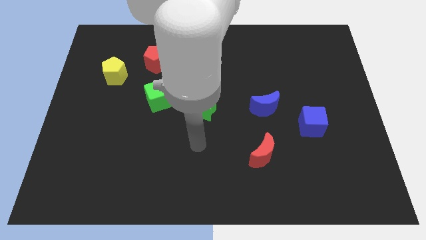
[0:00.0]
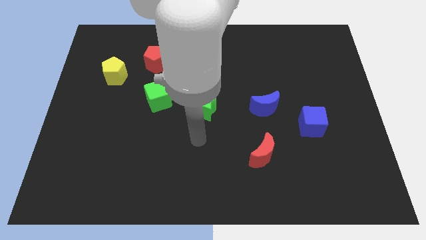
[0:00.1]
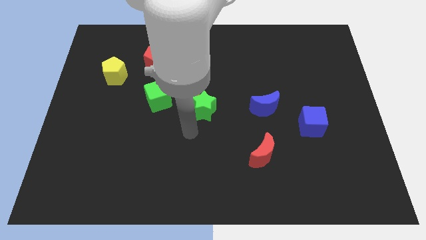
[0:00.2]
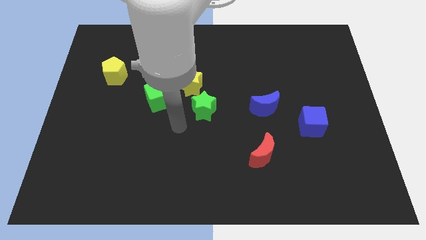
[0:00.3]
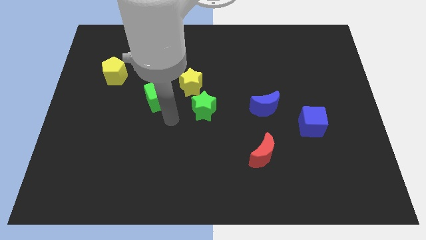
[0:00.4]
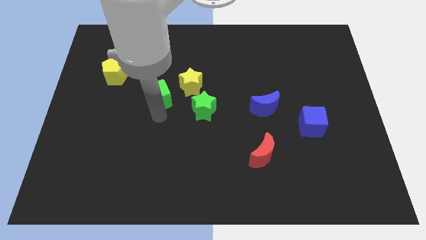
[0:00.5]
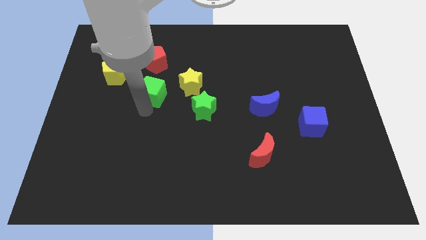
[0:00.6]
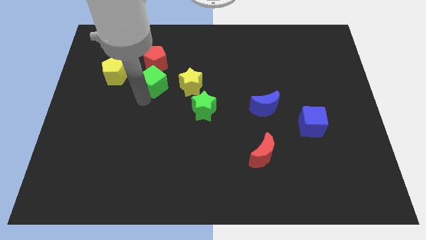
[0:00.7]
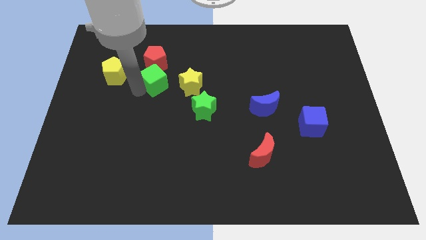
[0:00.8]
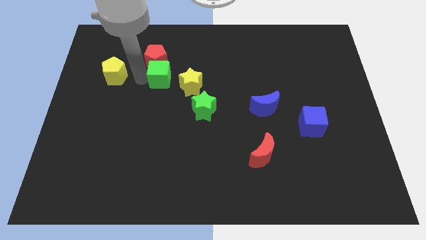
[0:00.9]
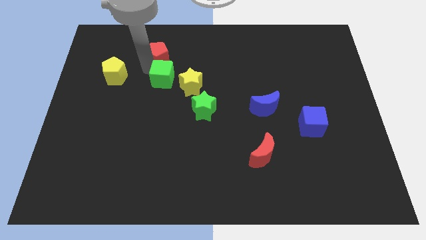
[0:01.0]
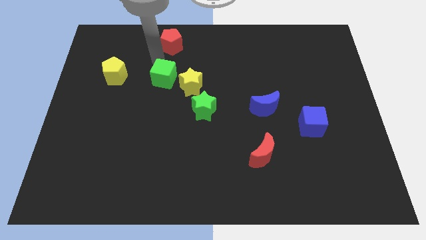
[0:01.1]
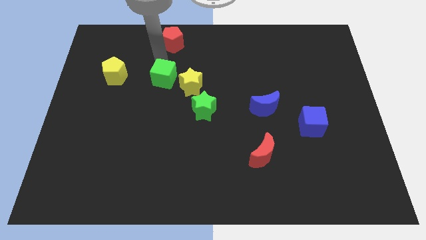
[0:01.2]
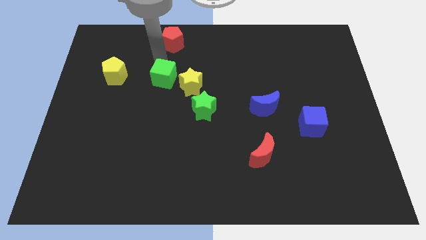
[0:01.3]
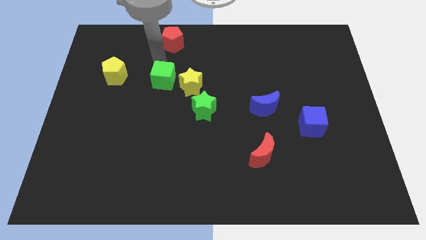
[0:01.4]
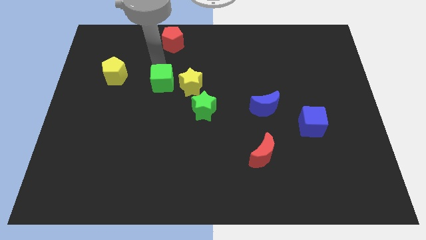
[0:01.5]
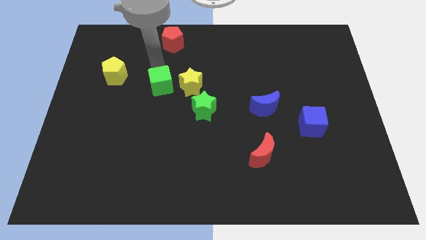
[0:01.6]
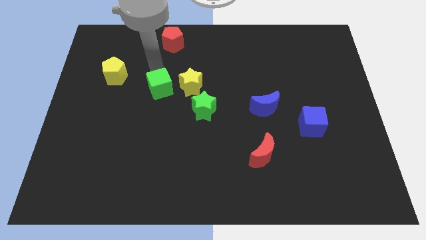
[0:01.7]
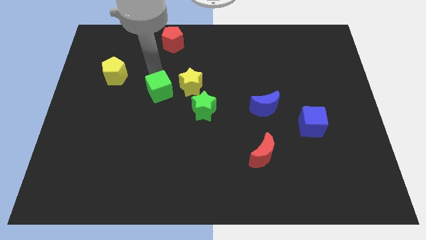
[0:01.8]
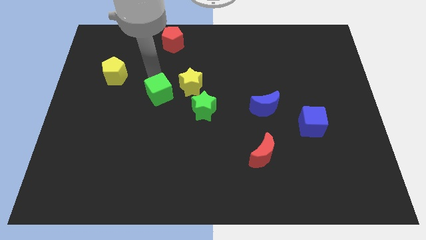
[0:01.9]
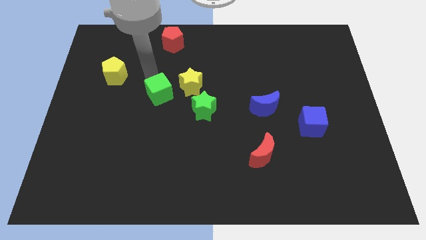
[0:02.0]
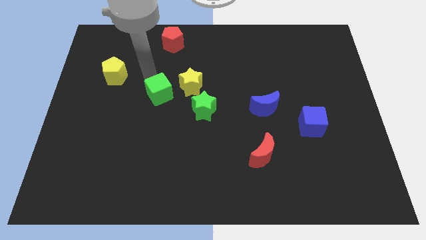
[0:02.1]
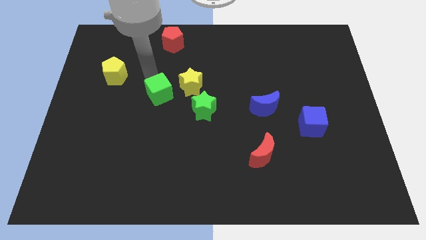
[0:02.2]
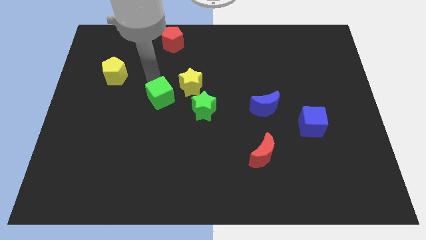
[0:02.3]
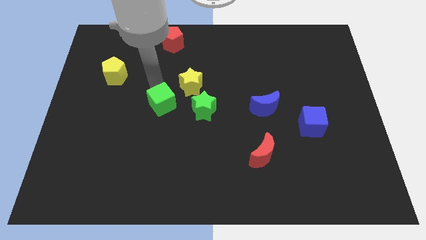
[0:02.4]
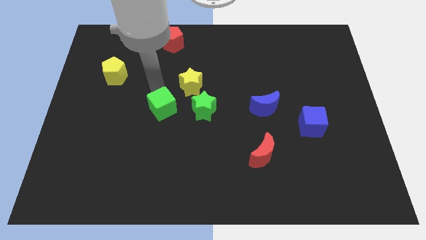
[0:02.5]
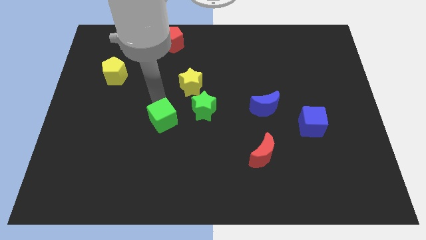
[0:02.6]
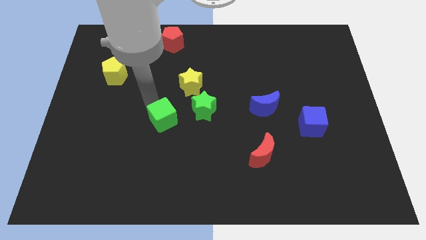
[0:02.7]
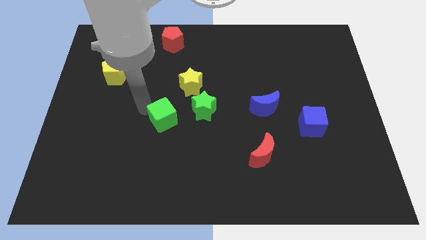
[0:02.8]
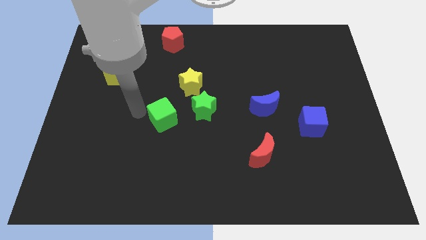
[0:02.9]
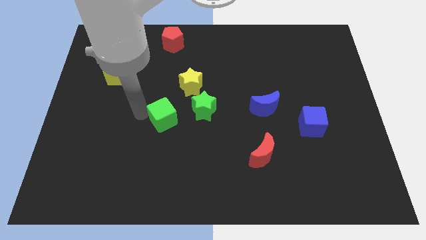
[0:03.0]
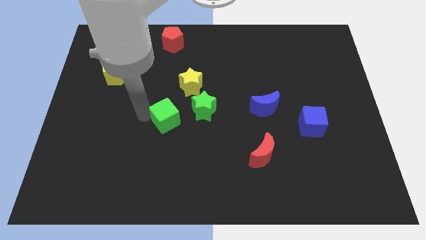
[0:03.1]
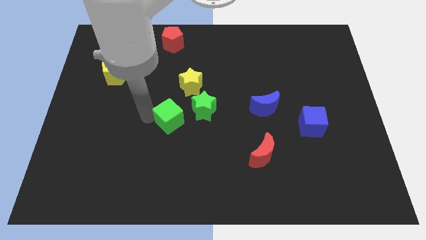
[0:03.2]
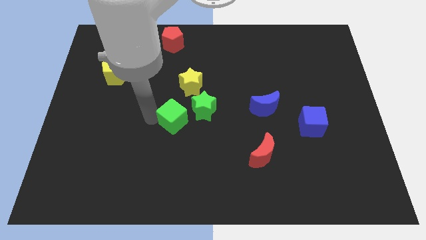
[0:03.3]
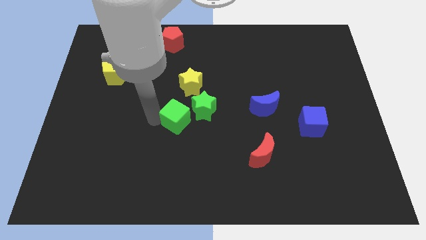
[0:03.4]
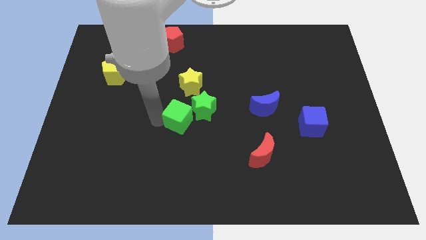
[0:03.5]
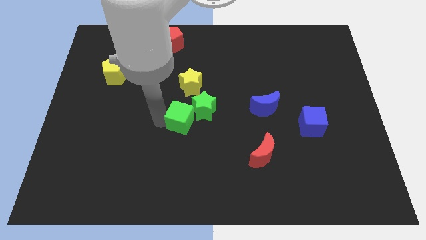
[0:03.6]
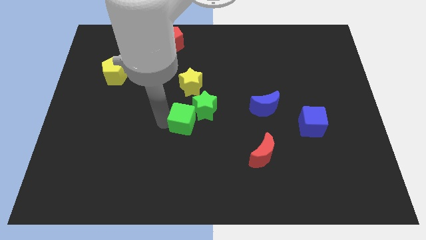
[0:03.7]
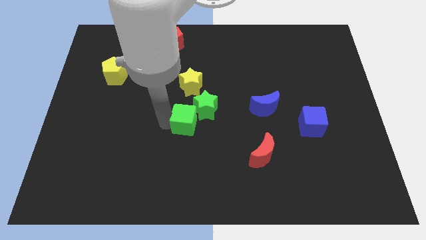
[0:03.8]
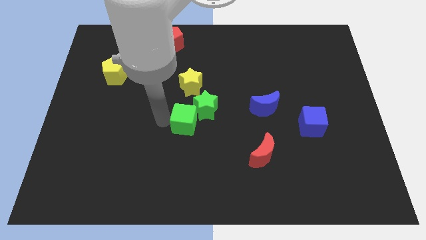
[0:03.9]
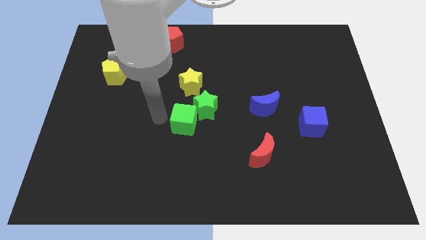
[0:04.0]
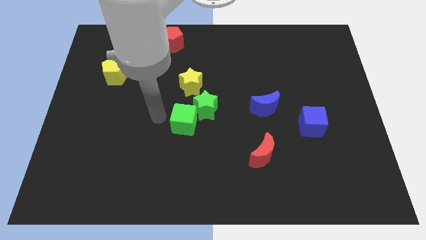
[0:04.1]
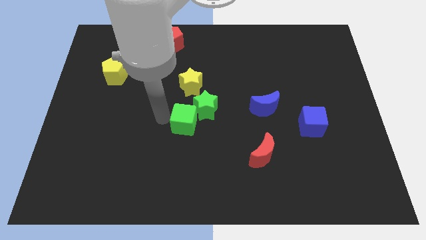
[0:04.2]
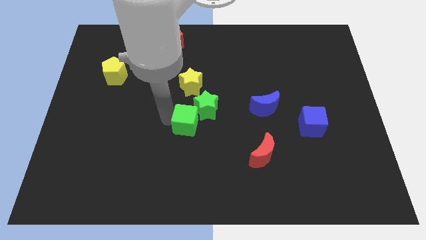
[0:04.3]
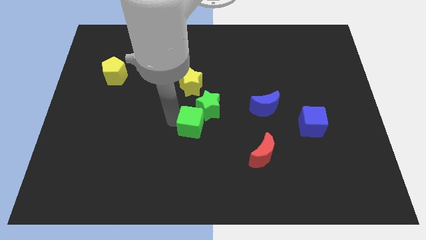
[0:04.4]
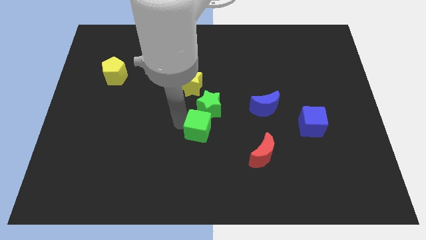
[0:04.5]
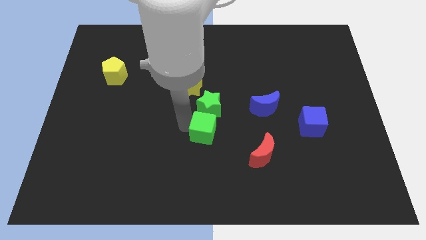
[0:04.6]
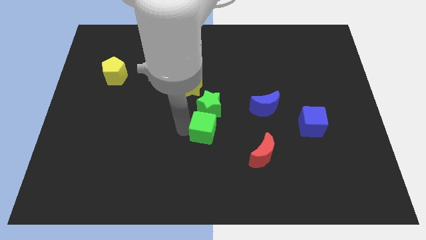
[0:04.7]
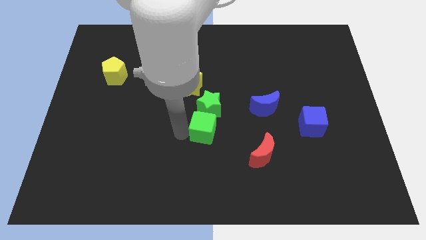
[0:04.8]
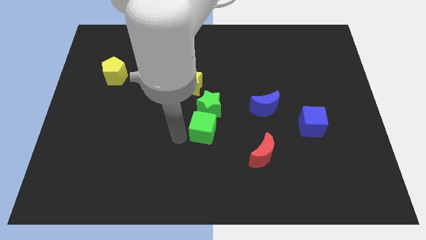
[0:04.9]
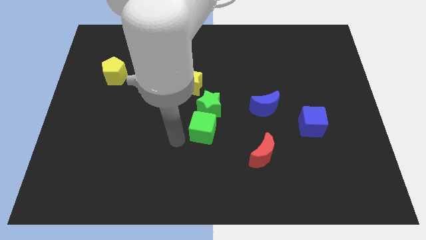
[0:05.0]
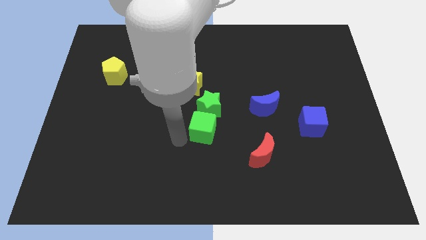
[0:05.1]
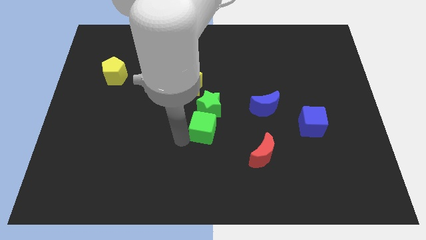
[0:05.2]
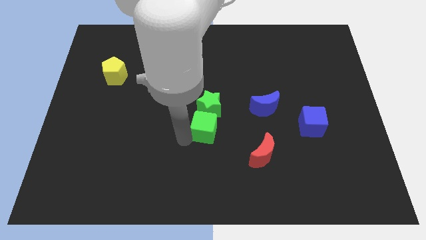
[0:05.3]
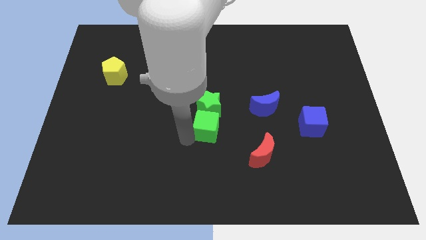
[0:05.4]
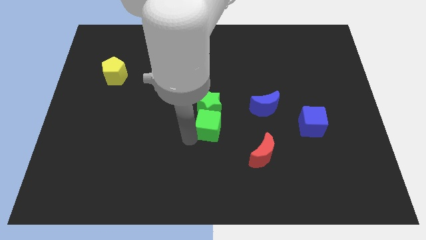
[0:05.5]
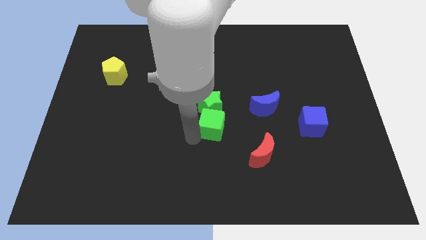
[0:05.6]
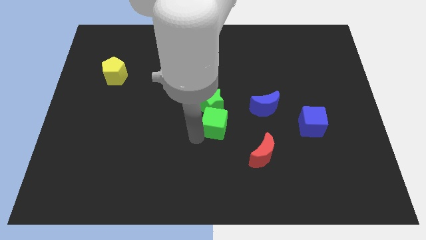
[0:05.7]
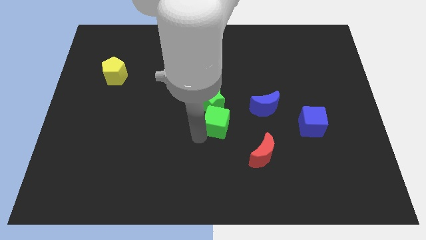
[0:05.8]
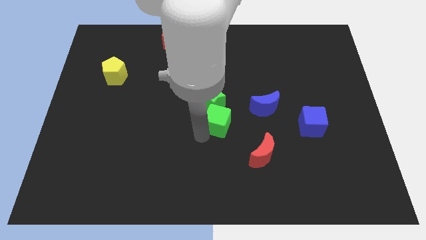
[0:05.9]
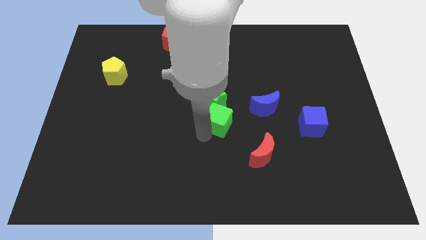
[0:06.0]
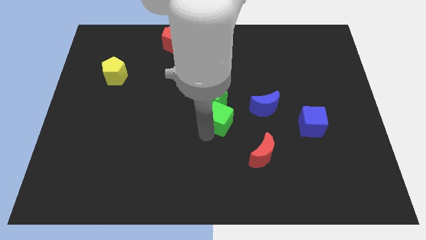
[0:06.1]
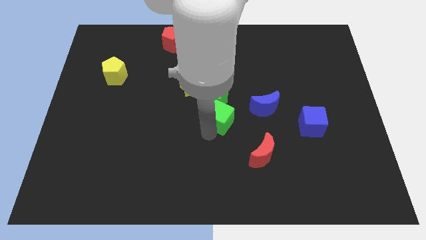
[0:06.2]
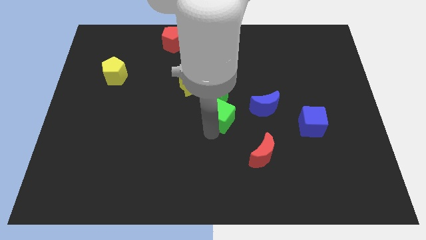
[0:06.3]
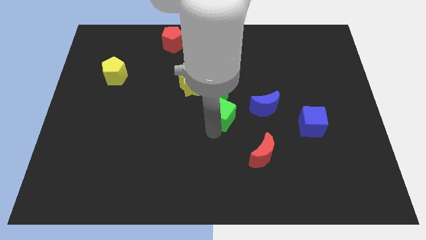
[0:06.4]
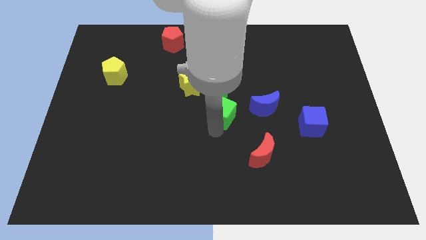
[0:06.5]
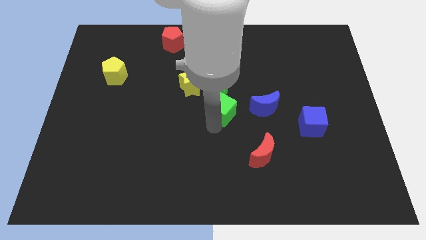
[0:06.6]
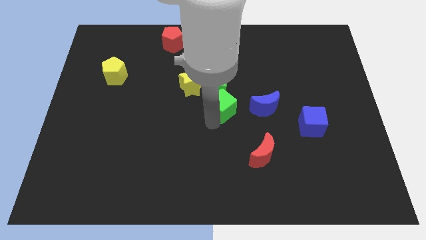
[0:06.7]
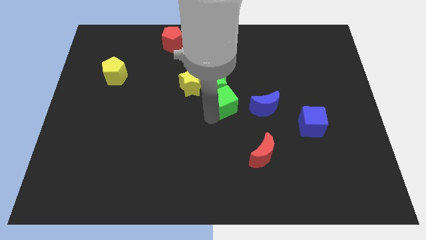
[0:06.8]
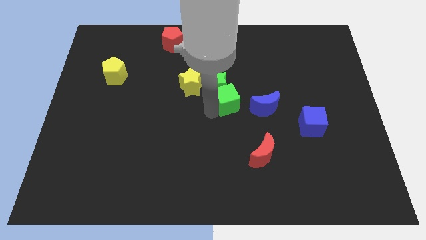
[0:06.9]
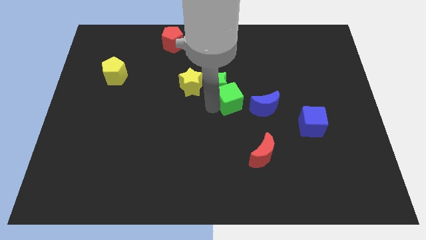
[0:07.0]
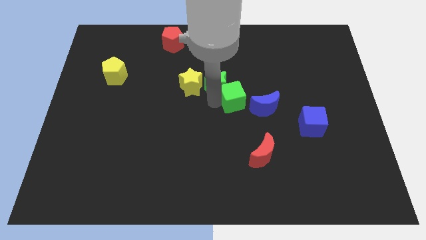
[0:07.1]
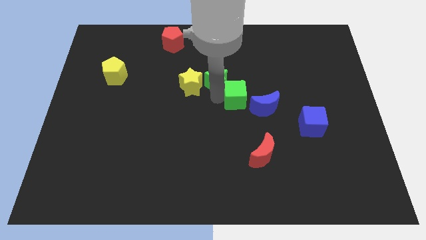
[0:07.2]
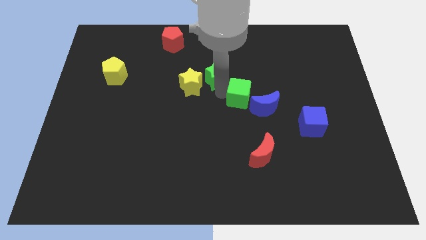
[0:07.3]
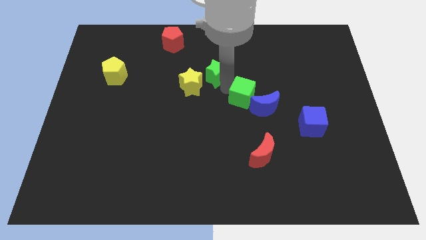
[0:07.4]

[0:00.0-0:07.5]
push the green cube to the right

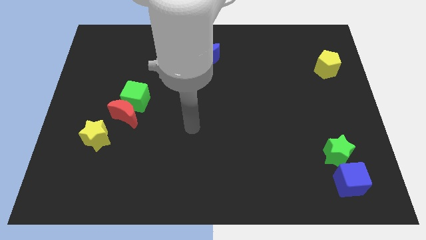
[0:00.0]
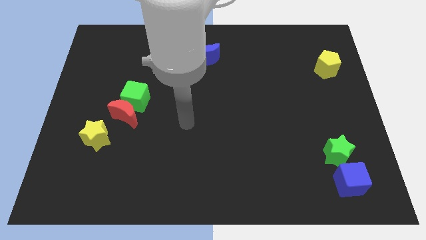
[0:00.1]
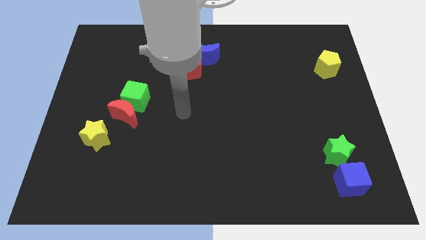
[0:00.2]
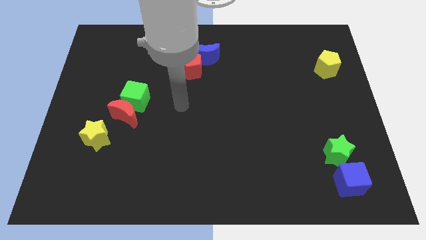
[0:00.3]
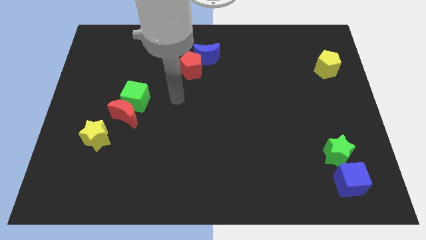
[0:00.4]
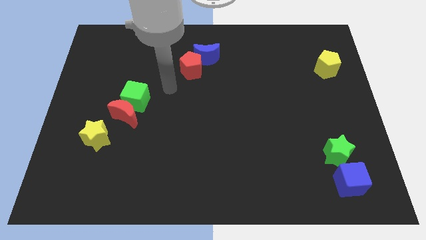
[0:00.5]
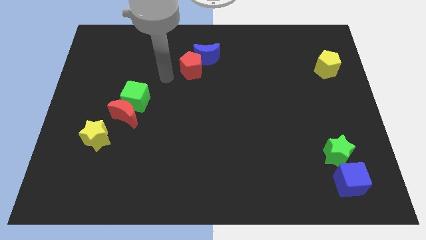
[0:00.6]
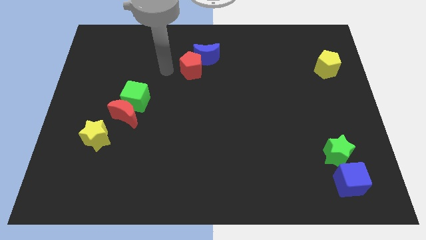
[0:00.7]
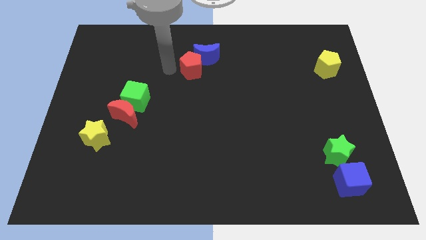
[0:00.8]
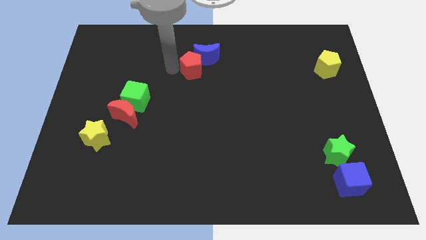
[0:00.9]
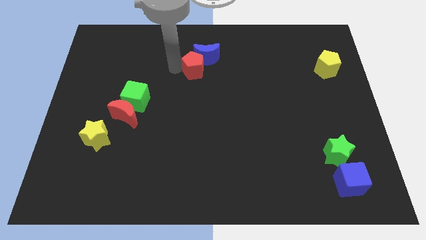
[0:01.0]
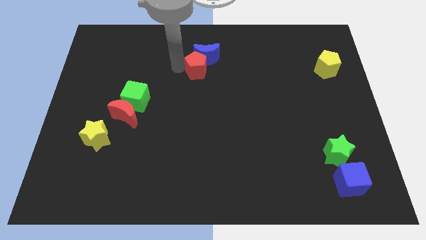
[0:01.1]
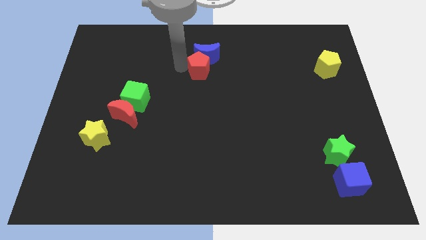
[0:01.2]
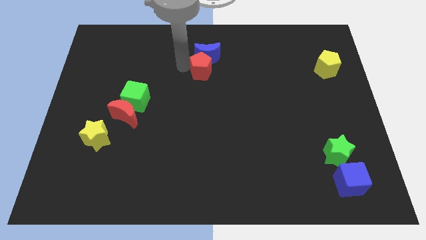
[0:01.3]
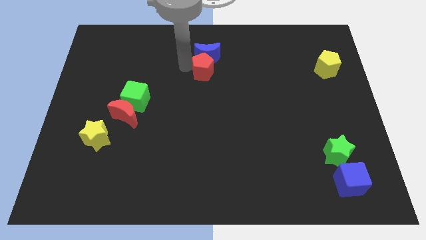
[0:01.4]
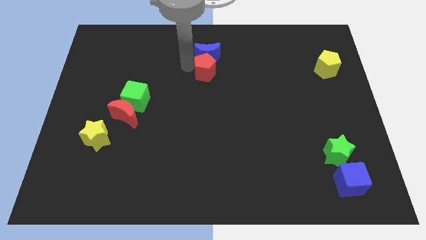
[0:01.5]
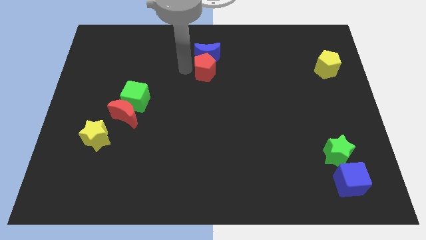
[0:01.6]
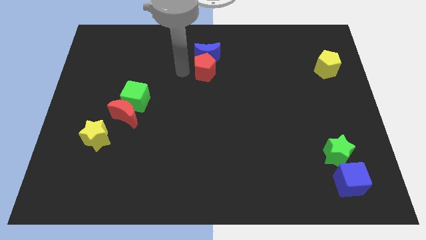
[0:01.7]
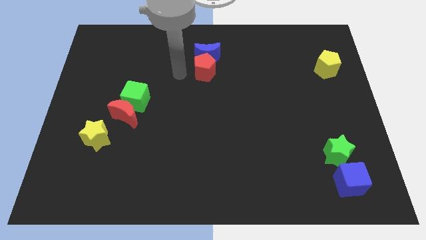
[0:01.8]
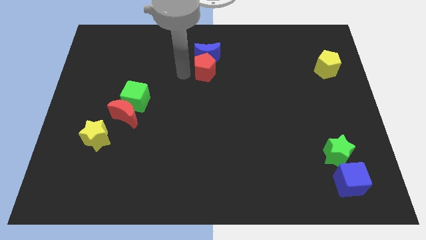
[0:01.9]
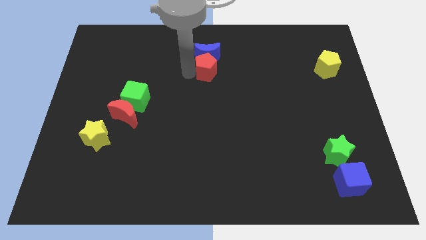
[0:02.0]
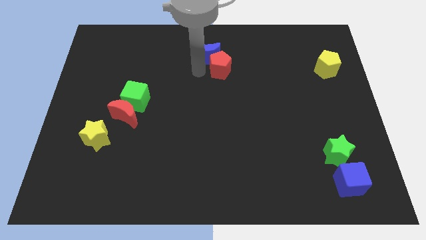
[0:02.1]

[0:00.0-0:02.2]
push the red pentagon right a little
